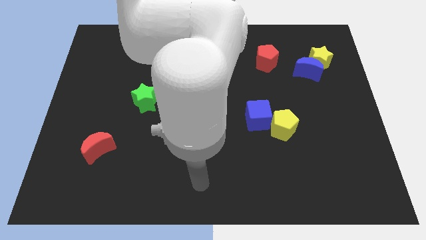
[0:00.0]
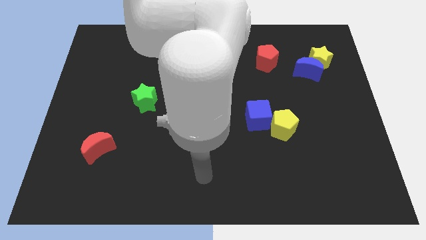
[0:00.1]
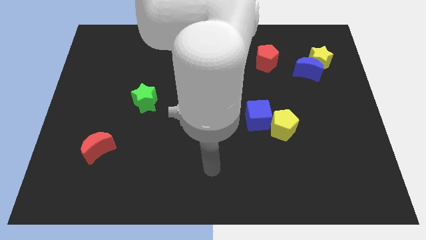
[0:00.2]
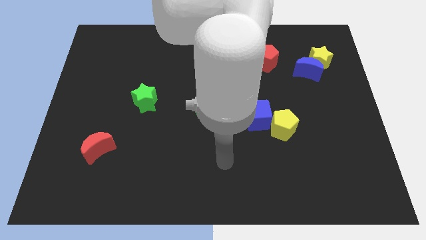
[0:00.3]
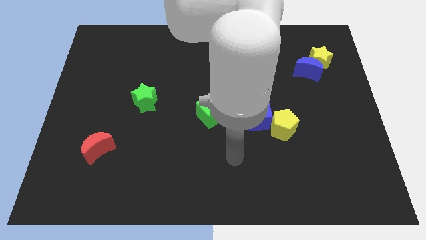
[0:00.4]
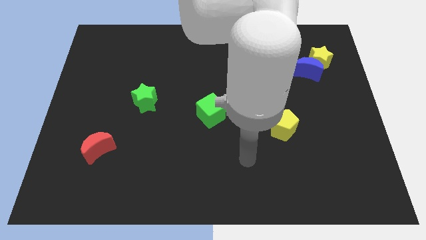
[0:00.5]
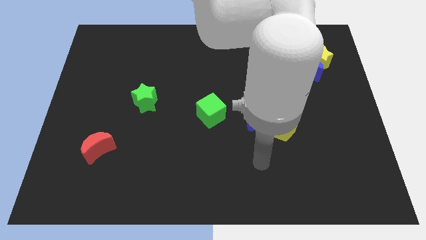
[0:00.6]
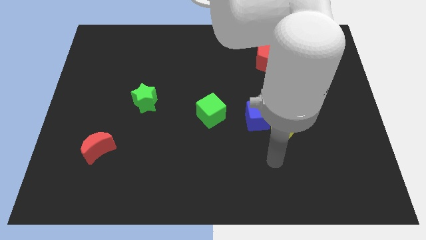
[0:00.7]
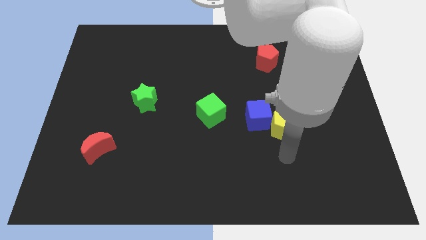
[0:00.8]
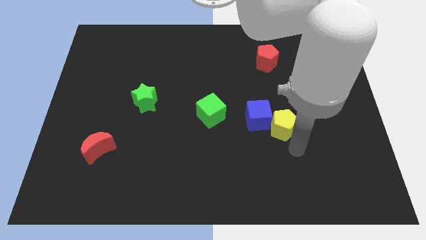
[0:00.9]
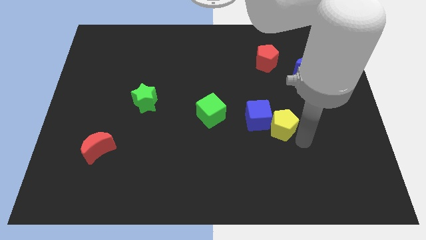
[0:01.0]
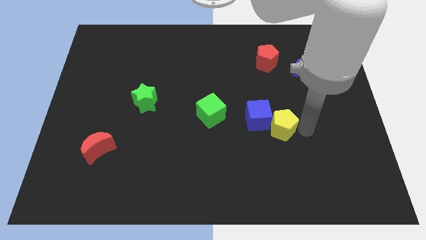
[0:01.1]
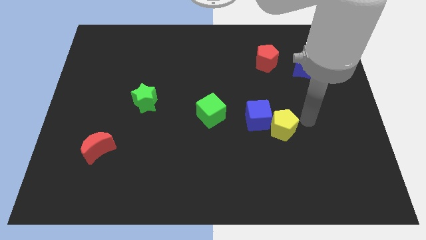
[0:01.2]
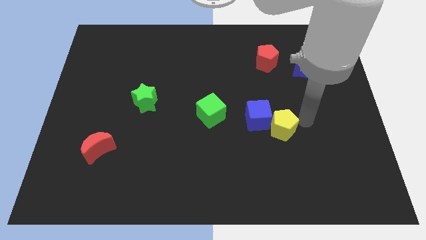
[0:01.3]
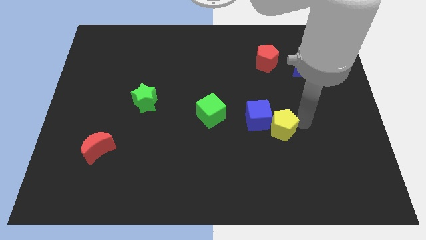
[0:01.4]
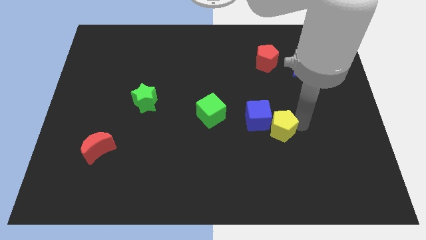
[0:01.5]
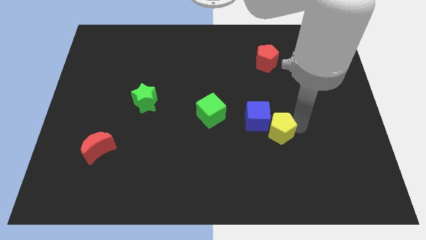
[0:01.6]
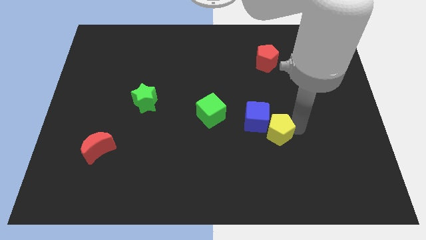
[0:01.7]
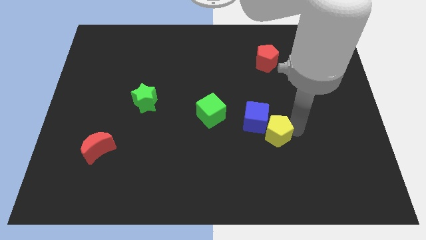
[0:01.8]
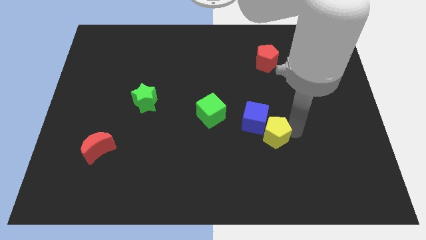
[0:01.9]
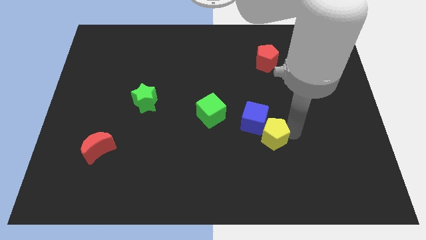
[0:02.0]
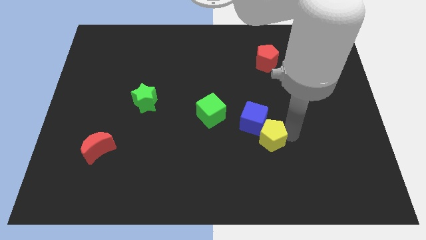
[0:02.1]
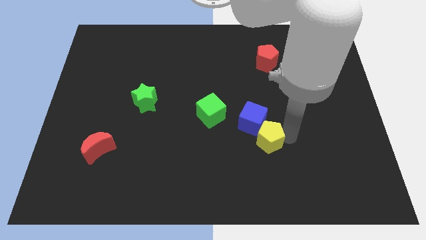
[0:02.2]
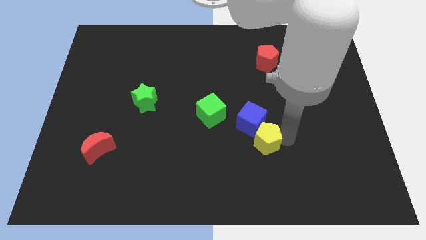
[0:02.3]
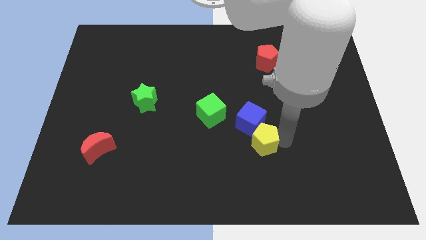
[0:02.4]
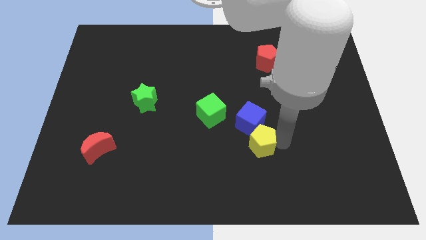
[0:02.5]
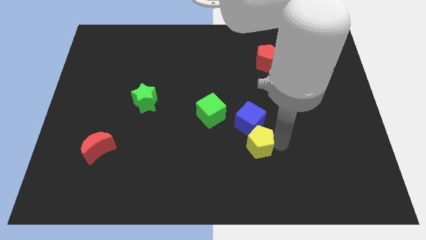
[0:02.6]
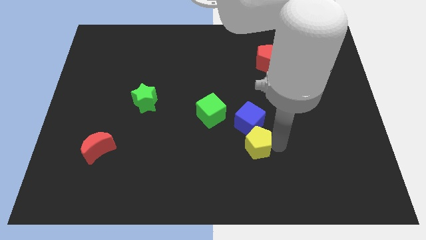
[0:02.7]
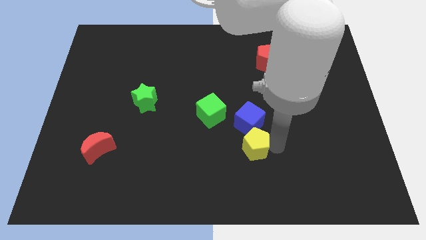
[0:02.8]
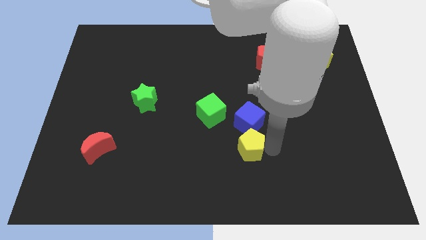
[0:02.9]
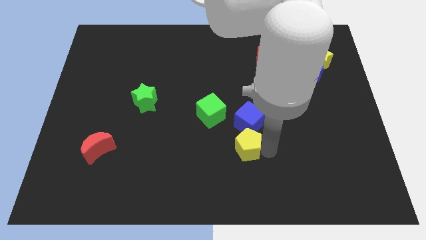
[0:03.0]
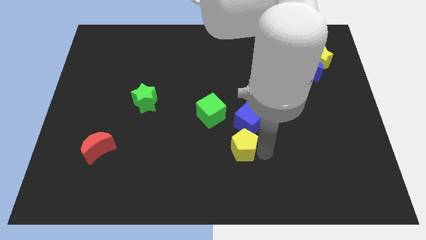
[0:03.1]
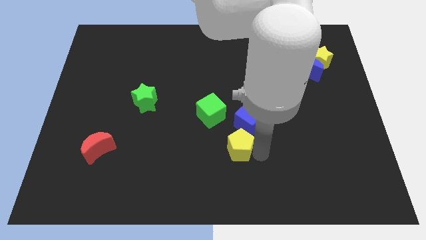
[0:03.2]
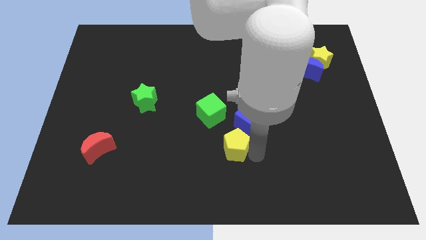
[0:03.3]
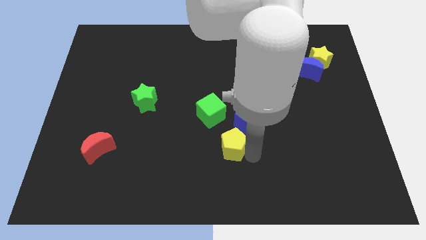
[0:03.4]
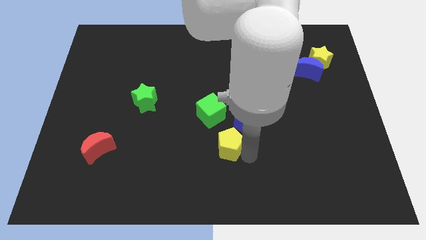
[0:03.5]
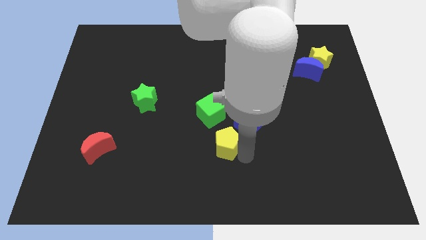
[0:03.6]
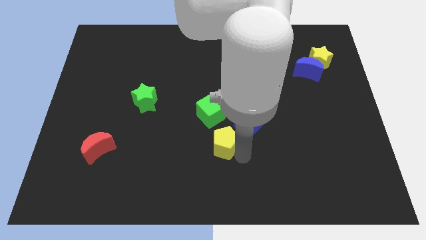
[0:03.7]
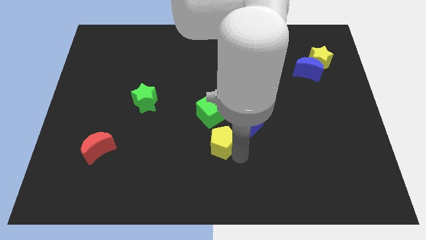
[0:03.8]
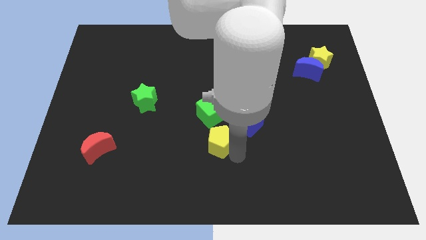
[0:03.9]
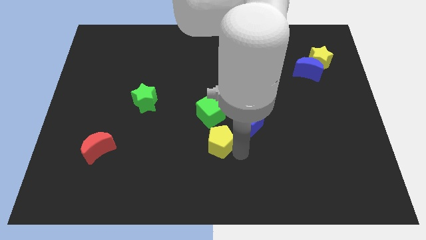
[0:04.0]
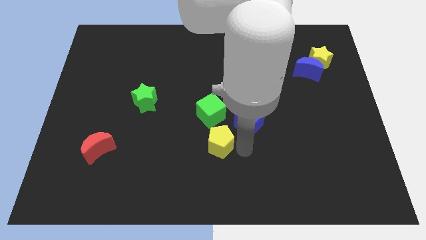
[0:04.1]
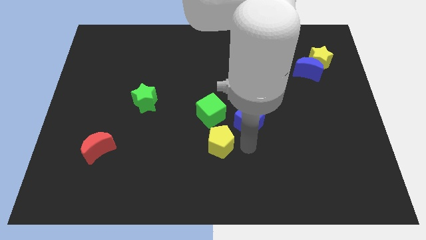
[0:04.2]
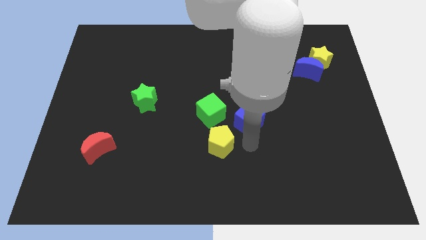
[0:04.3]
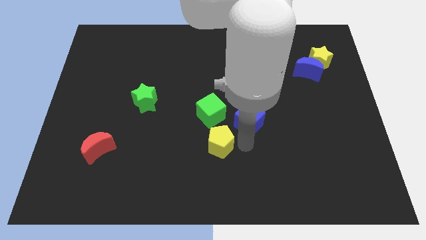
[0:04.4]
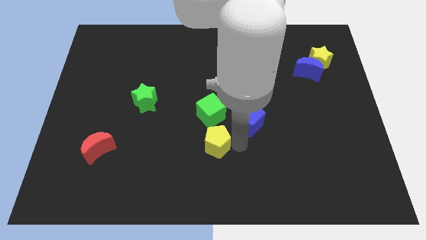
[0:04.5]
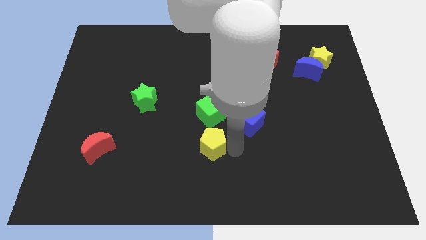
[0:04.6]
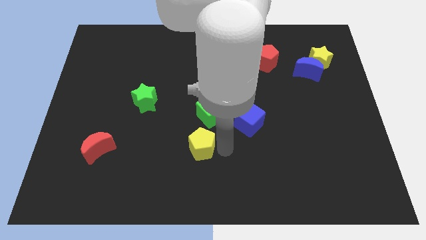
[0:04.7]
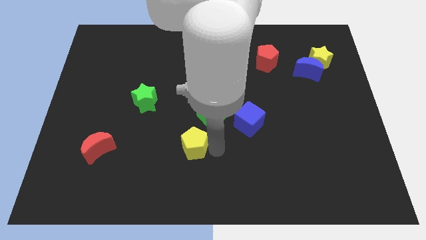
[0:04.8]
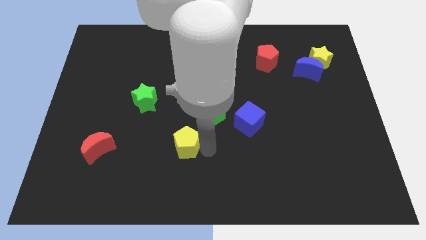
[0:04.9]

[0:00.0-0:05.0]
push the yellow pentagon left

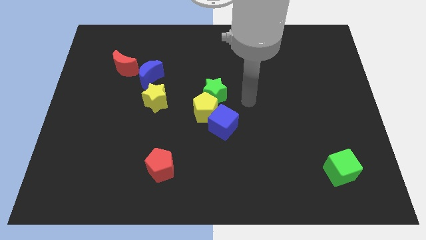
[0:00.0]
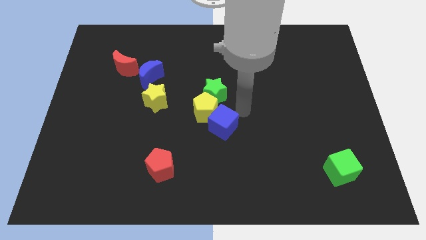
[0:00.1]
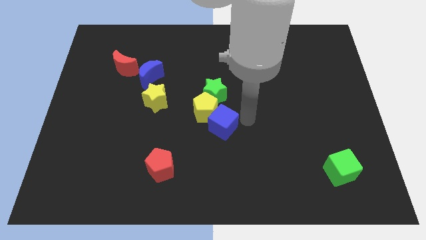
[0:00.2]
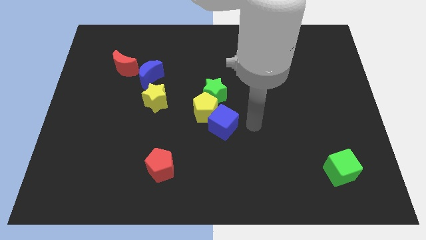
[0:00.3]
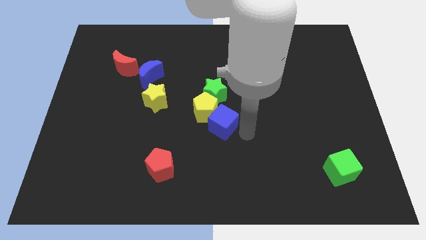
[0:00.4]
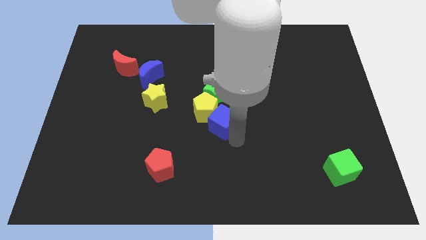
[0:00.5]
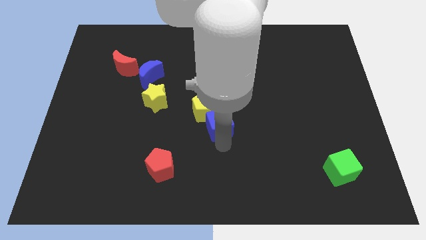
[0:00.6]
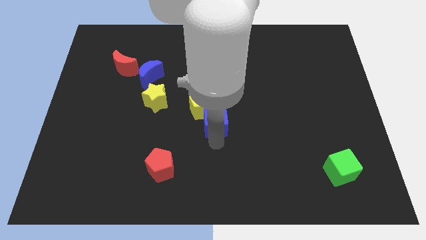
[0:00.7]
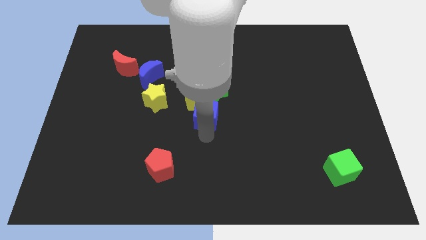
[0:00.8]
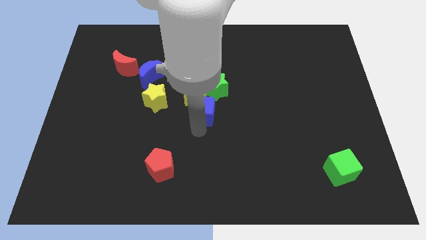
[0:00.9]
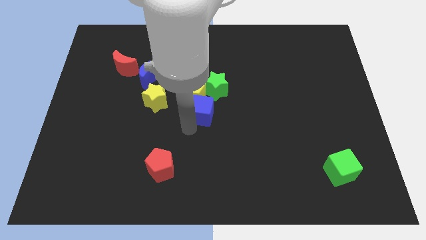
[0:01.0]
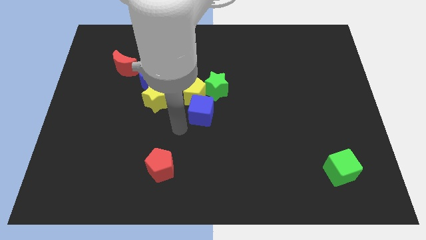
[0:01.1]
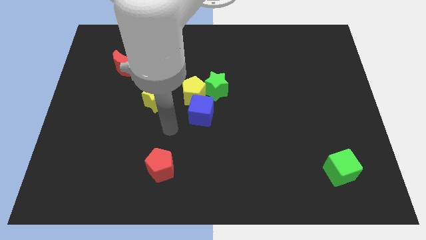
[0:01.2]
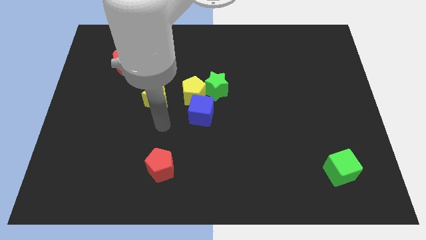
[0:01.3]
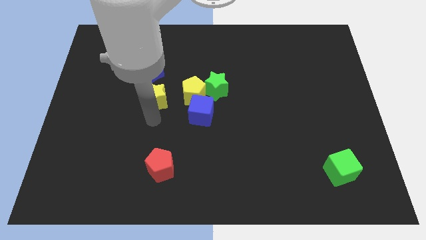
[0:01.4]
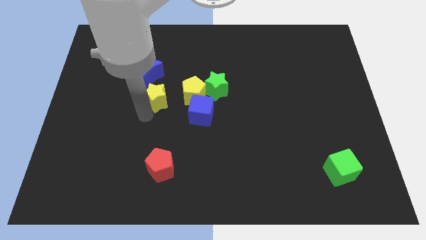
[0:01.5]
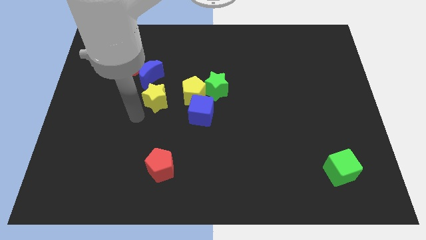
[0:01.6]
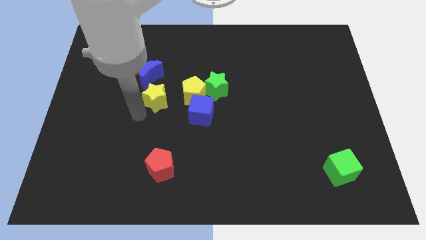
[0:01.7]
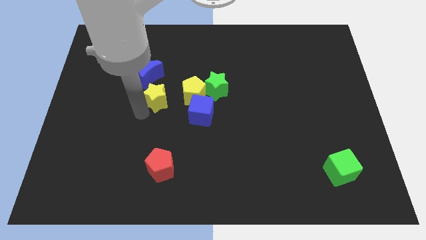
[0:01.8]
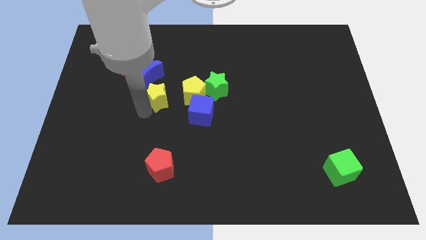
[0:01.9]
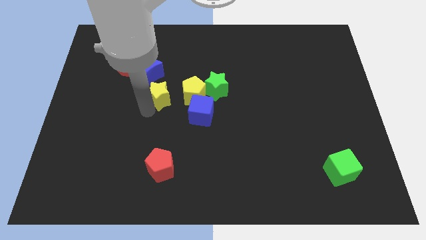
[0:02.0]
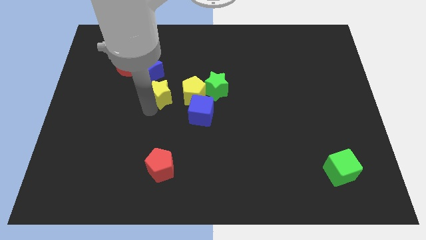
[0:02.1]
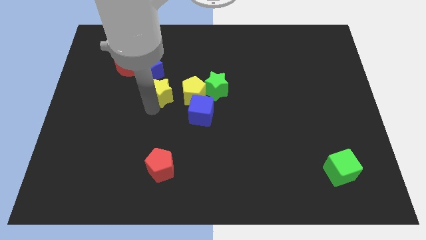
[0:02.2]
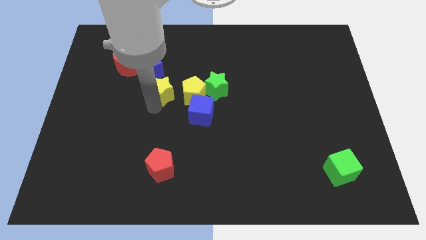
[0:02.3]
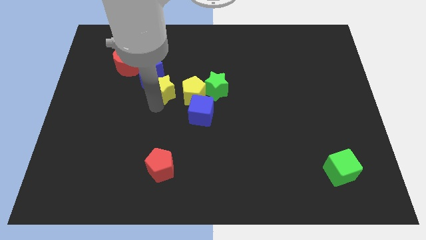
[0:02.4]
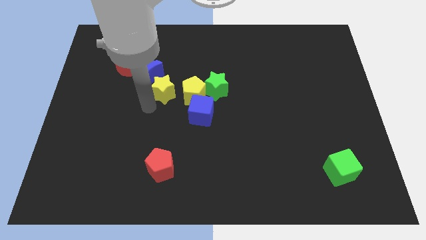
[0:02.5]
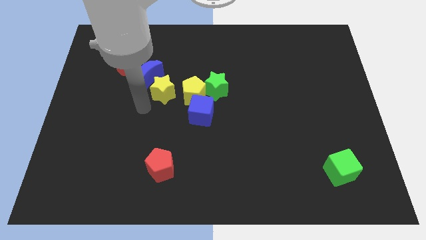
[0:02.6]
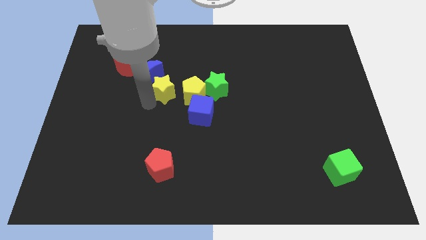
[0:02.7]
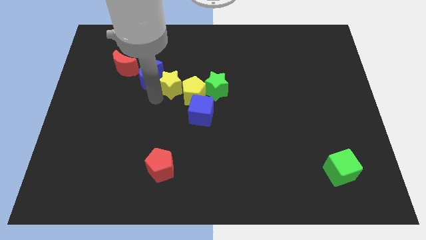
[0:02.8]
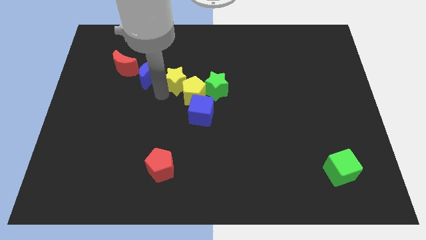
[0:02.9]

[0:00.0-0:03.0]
move the yellow star upwards and then right a little
